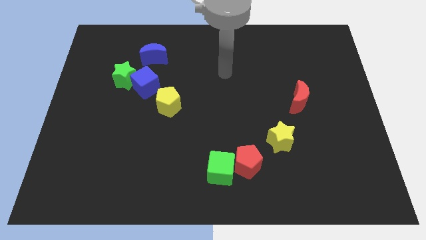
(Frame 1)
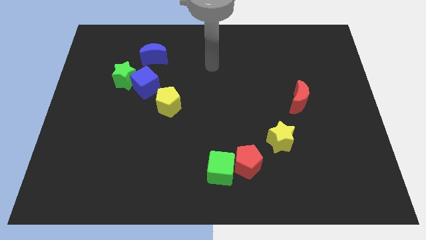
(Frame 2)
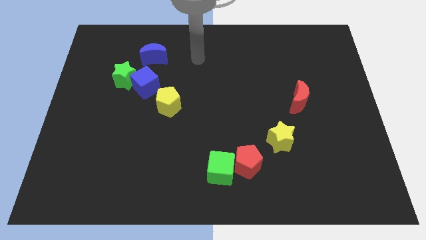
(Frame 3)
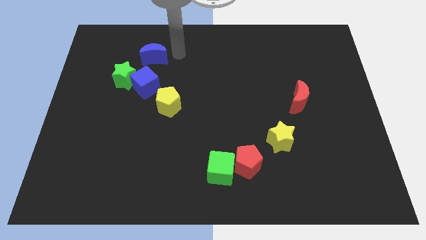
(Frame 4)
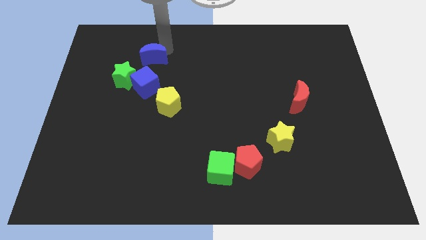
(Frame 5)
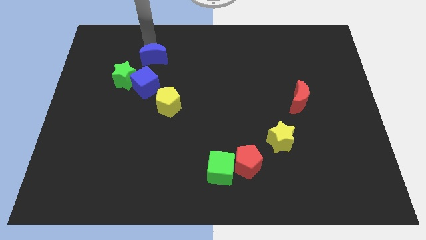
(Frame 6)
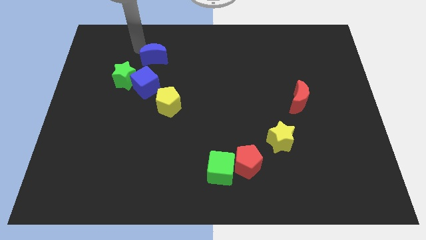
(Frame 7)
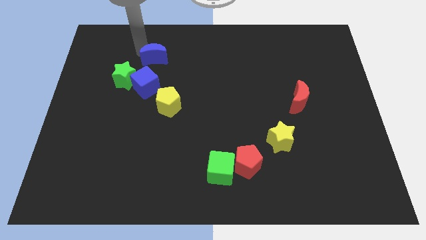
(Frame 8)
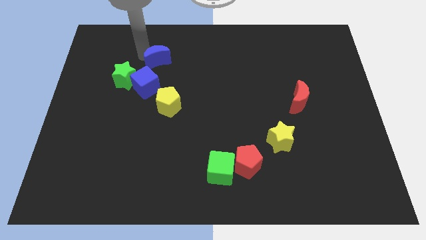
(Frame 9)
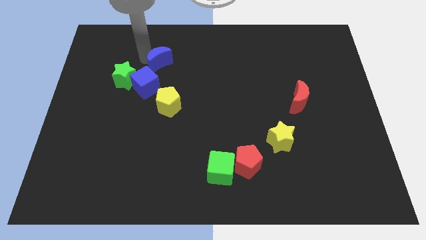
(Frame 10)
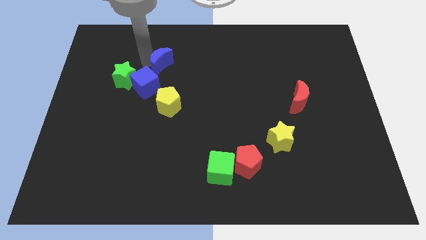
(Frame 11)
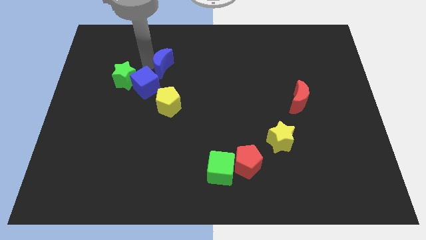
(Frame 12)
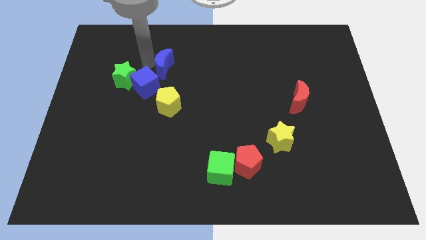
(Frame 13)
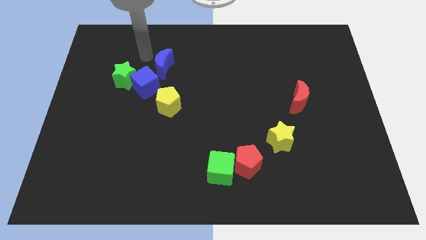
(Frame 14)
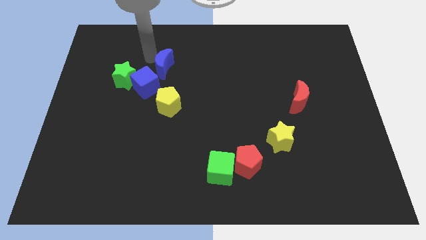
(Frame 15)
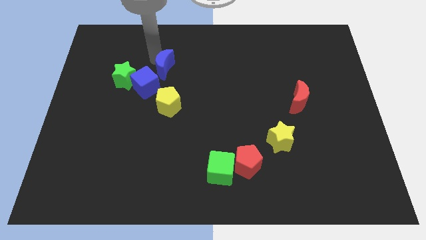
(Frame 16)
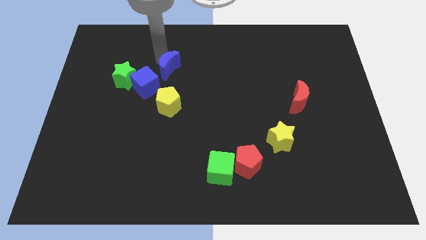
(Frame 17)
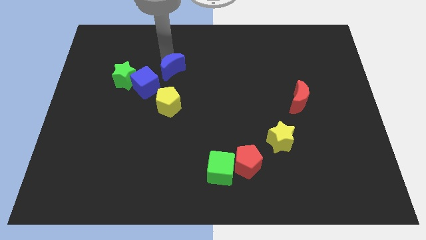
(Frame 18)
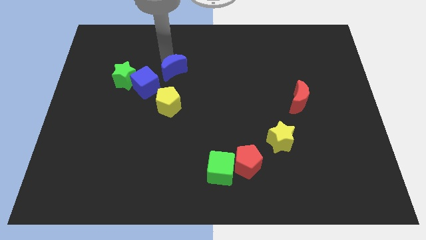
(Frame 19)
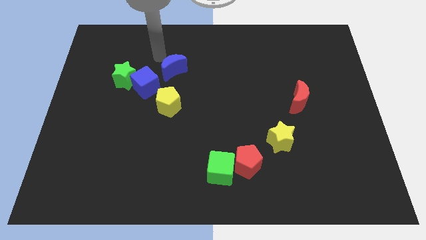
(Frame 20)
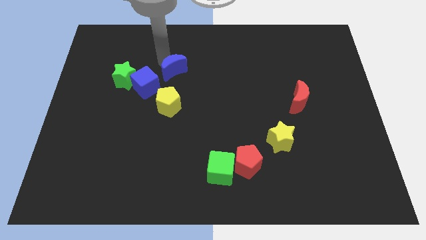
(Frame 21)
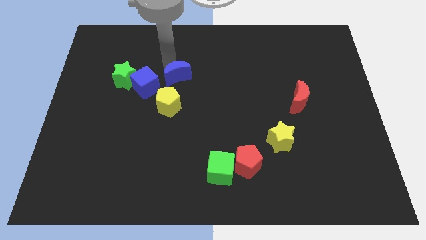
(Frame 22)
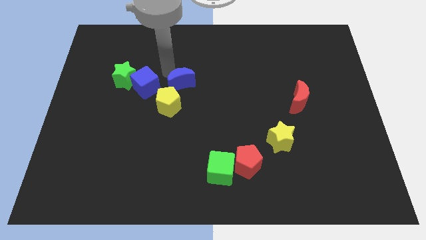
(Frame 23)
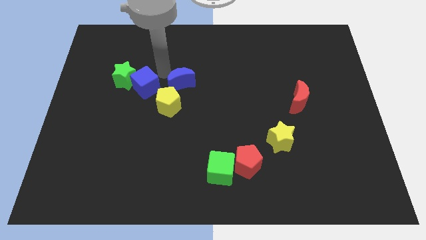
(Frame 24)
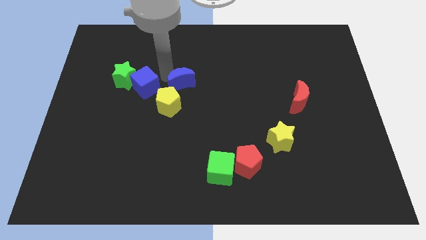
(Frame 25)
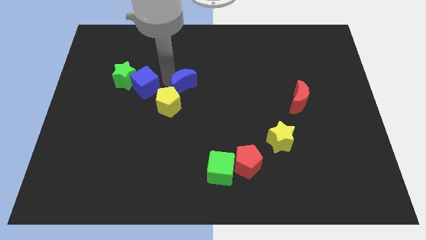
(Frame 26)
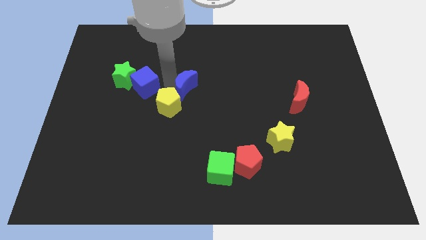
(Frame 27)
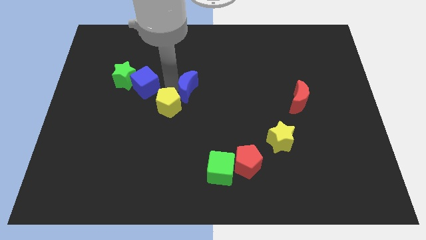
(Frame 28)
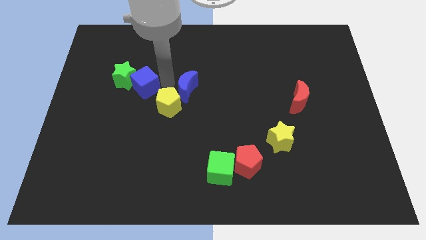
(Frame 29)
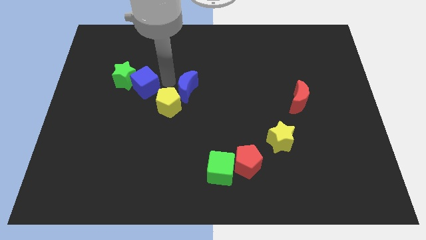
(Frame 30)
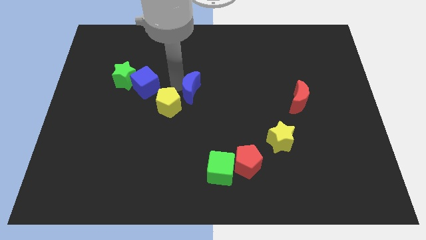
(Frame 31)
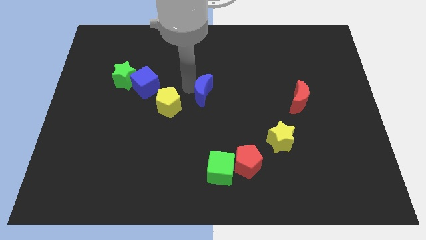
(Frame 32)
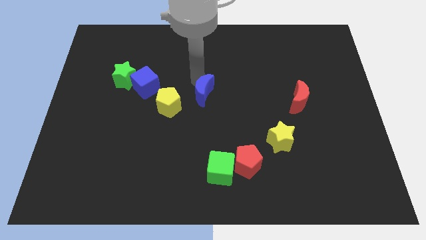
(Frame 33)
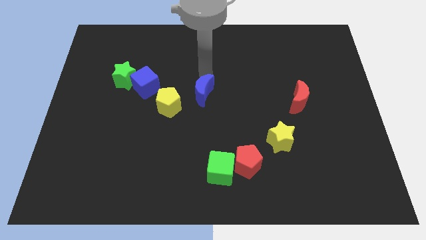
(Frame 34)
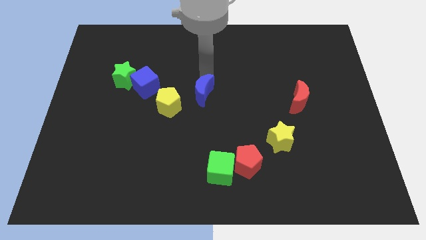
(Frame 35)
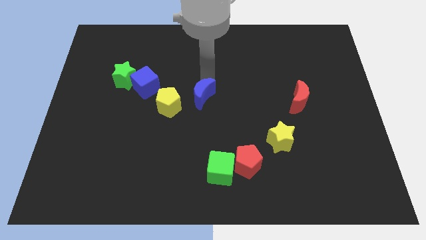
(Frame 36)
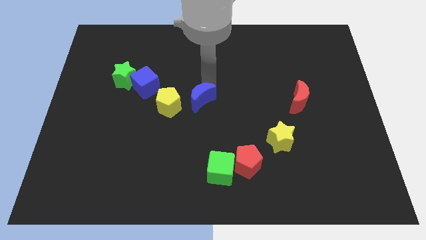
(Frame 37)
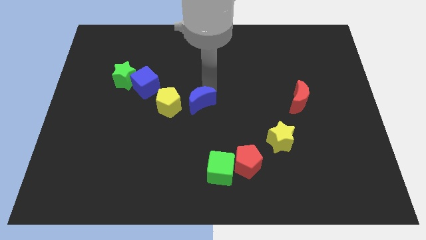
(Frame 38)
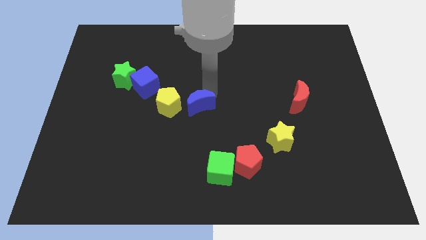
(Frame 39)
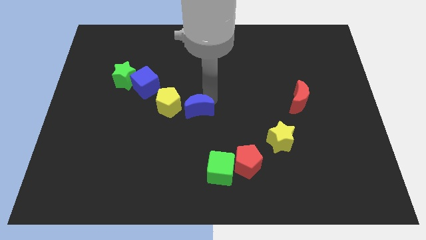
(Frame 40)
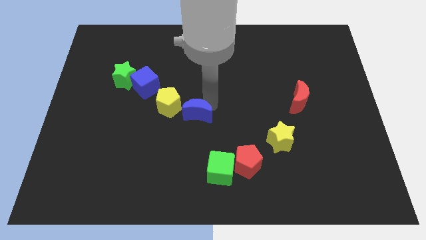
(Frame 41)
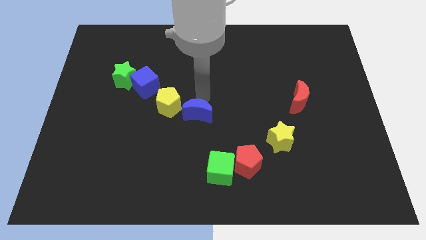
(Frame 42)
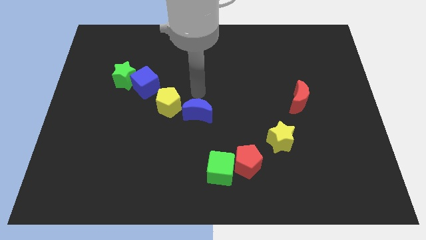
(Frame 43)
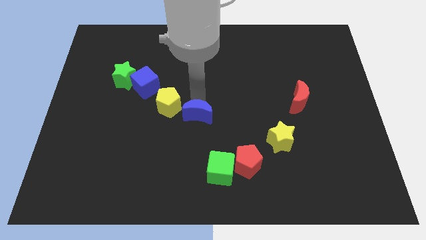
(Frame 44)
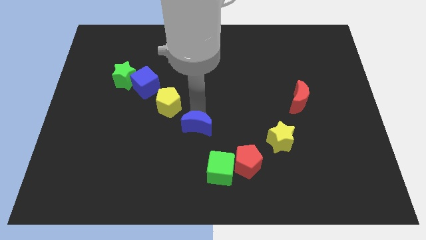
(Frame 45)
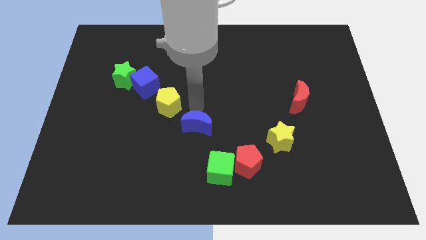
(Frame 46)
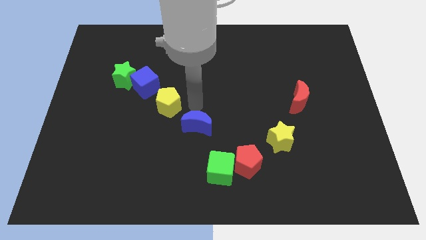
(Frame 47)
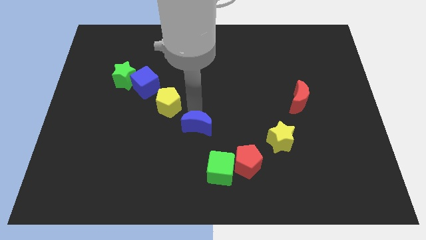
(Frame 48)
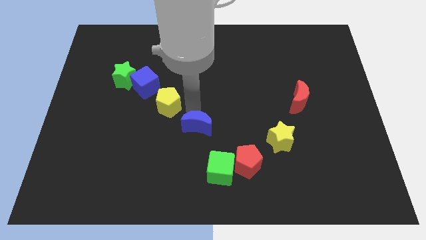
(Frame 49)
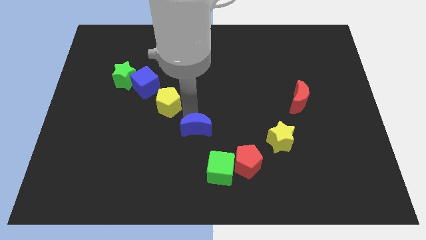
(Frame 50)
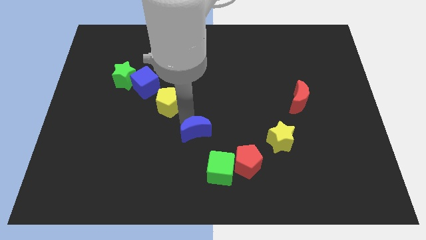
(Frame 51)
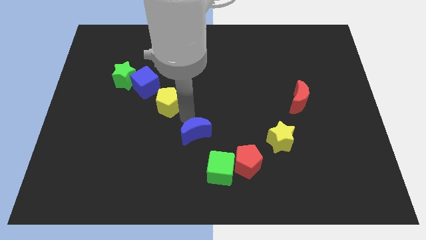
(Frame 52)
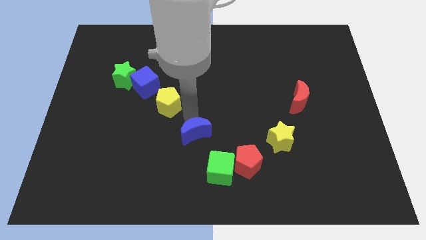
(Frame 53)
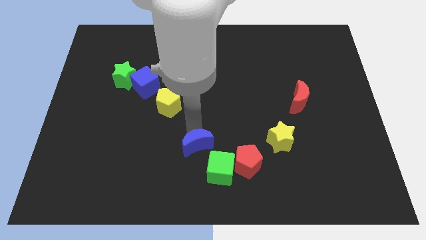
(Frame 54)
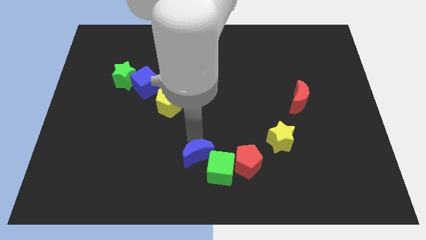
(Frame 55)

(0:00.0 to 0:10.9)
put the blue moon to the bottom side

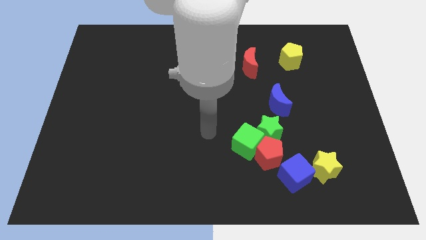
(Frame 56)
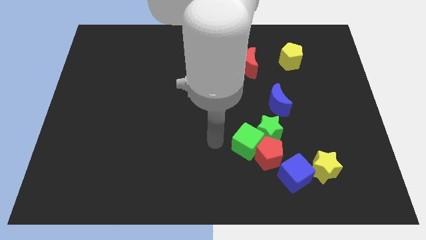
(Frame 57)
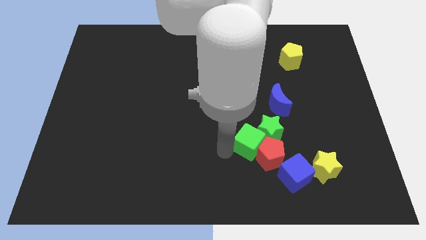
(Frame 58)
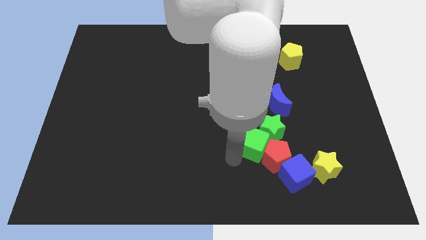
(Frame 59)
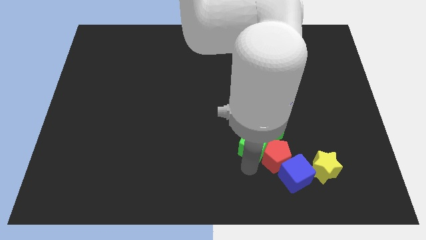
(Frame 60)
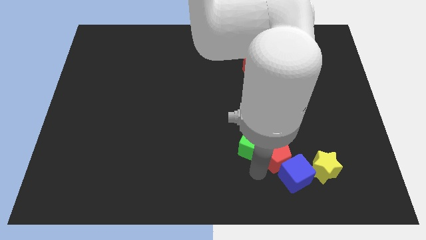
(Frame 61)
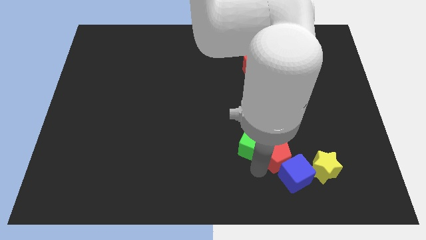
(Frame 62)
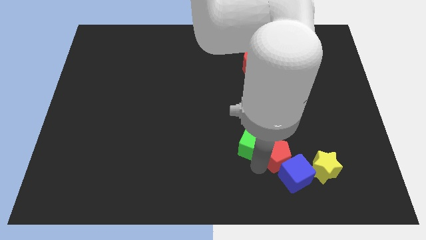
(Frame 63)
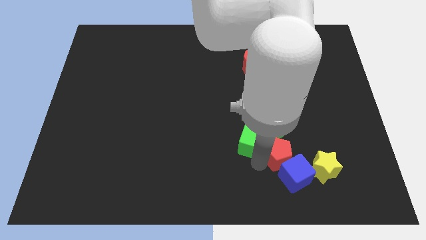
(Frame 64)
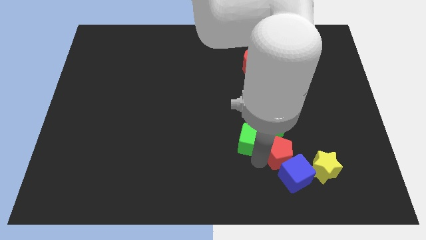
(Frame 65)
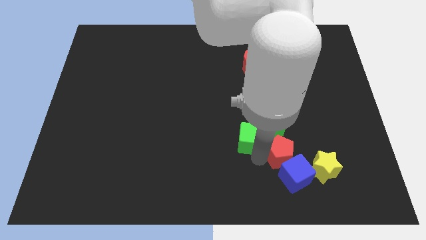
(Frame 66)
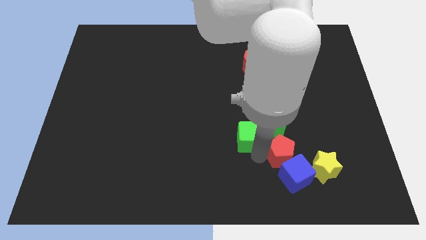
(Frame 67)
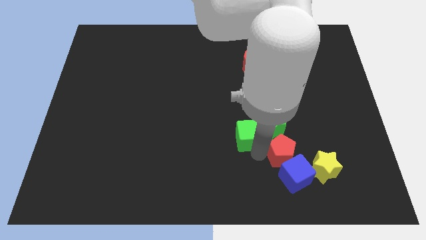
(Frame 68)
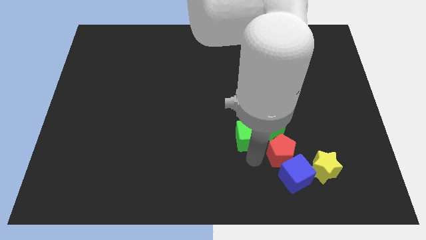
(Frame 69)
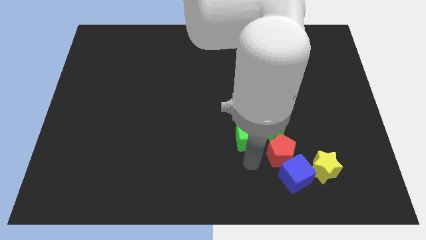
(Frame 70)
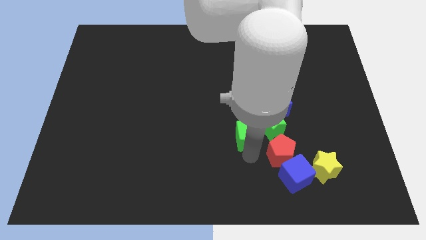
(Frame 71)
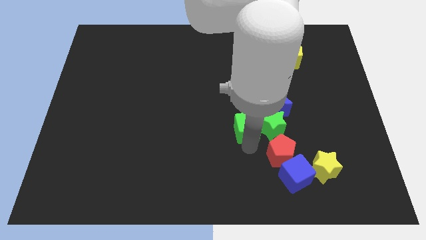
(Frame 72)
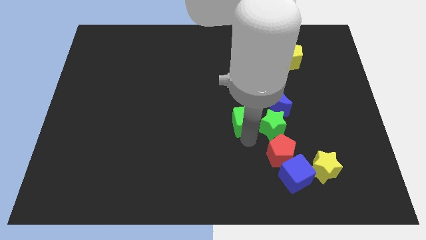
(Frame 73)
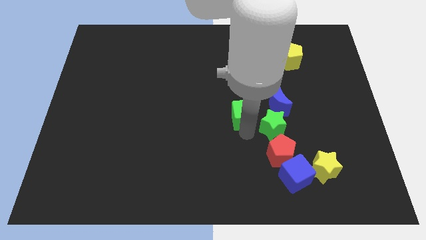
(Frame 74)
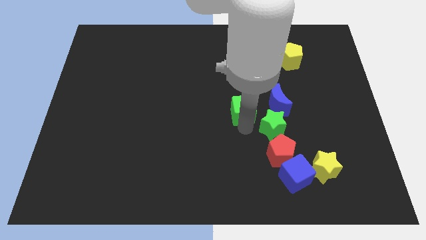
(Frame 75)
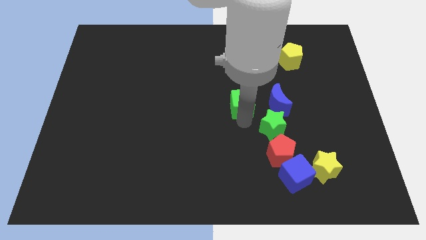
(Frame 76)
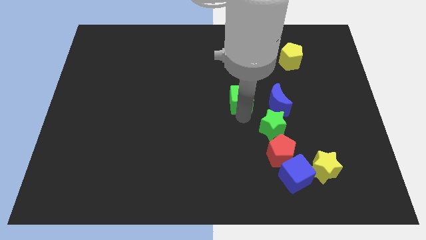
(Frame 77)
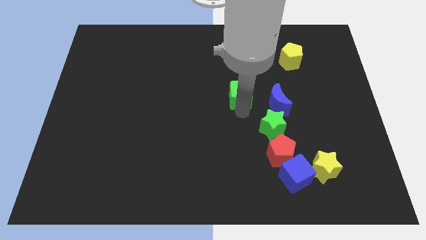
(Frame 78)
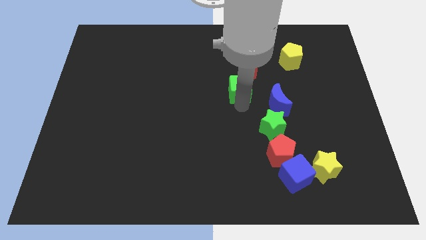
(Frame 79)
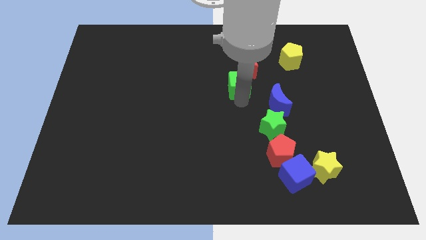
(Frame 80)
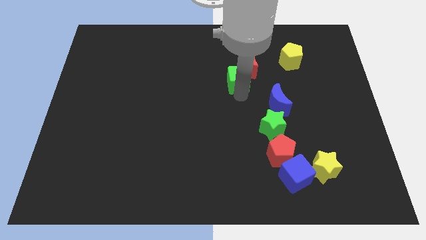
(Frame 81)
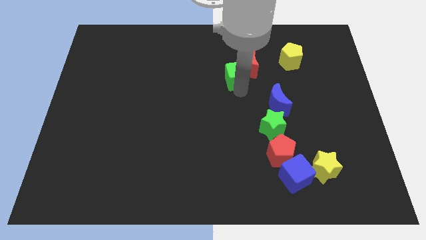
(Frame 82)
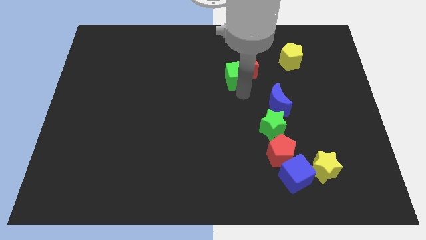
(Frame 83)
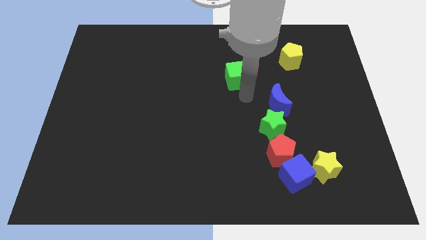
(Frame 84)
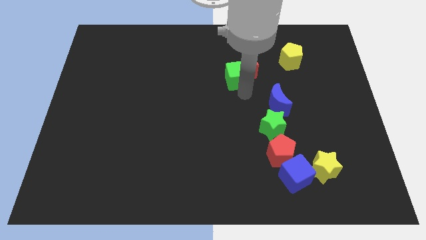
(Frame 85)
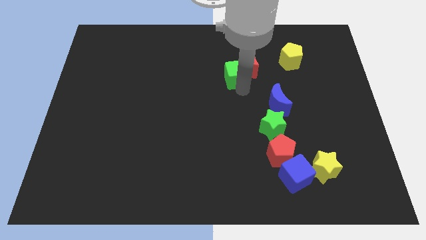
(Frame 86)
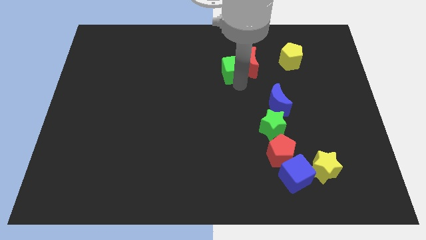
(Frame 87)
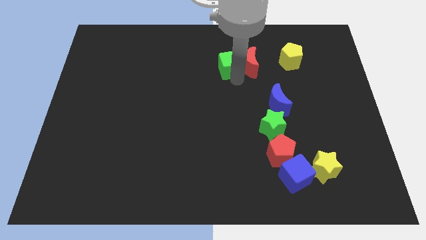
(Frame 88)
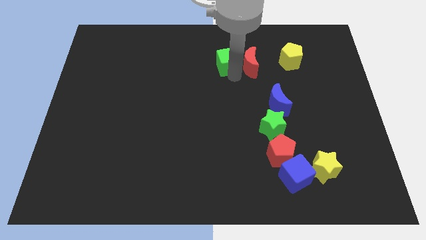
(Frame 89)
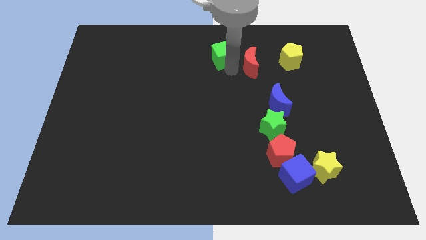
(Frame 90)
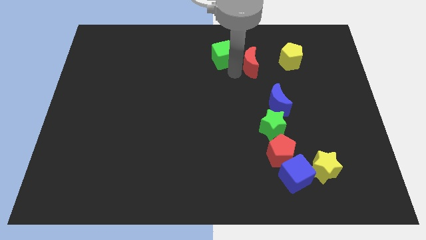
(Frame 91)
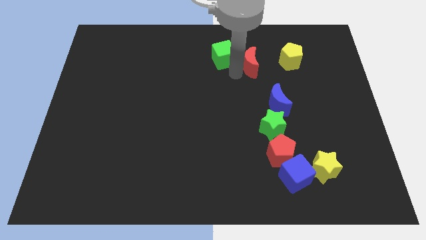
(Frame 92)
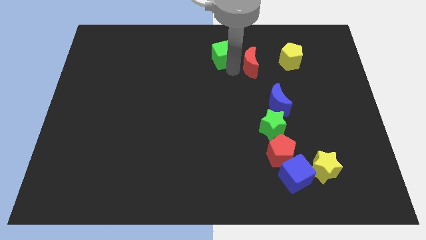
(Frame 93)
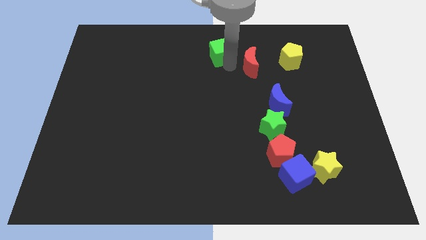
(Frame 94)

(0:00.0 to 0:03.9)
slide the green cube to the towards your base
